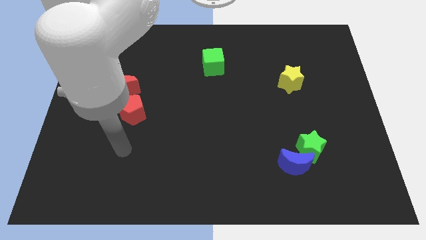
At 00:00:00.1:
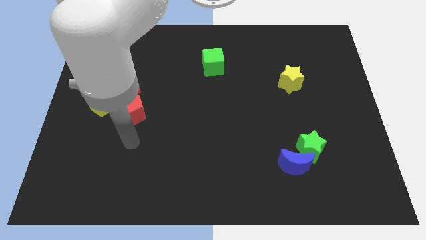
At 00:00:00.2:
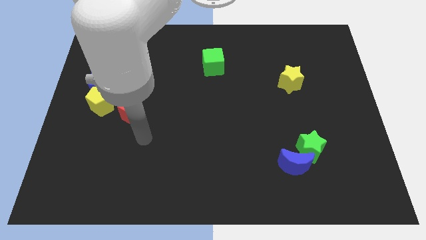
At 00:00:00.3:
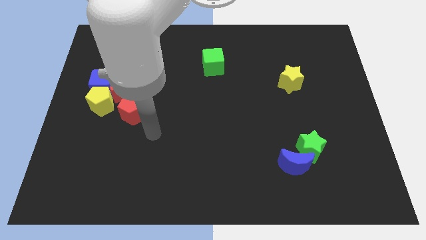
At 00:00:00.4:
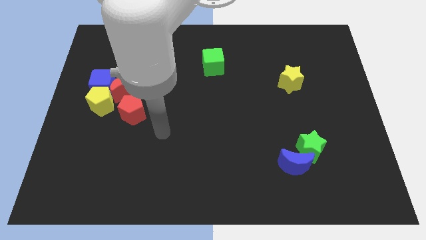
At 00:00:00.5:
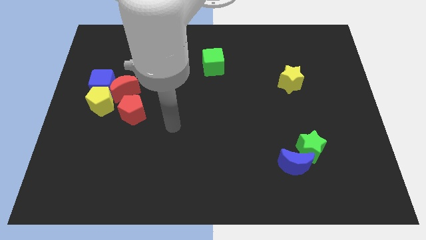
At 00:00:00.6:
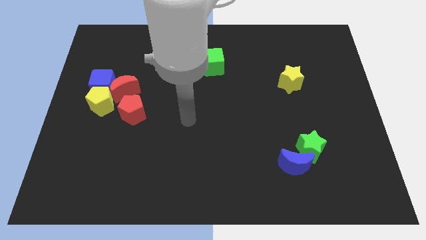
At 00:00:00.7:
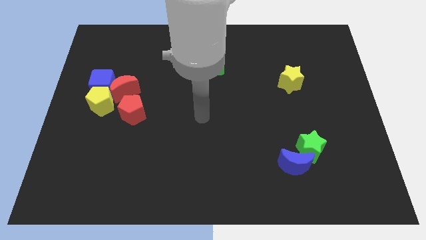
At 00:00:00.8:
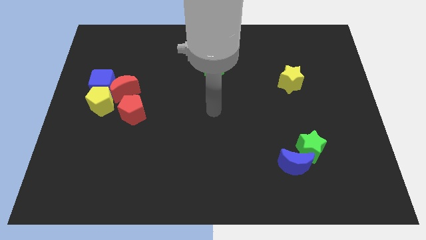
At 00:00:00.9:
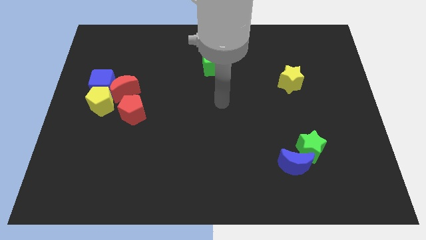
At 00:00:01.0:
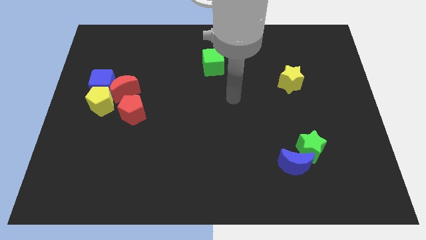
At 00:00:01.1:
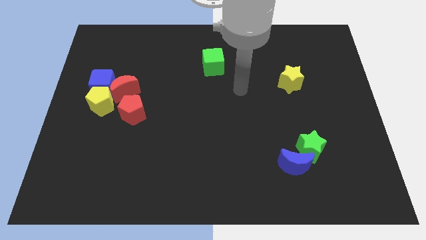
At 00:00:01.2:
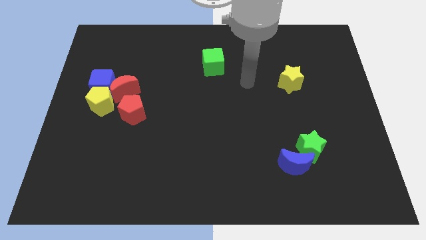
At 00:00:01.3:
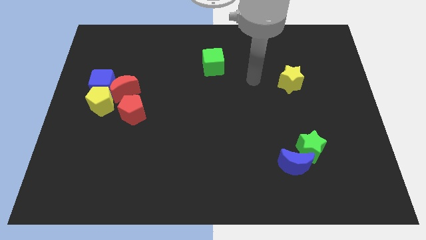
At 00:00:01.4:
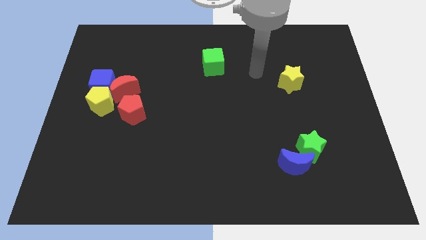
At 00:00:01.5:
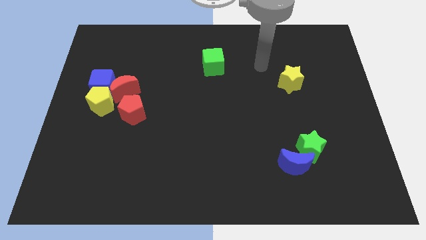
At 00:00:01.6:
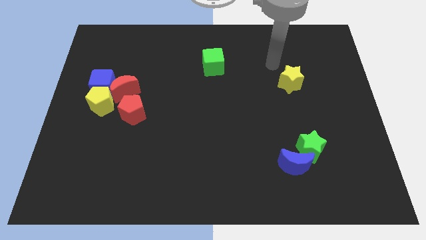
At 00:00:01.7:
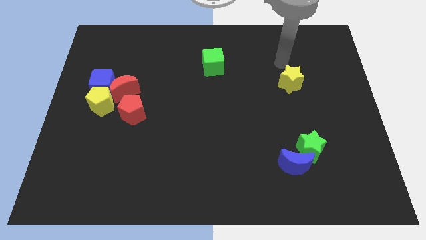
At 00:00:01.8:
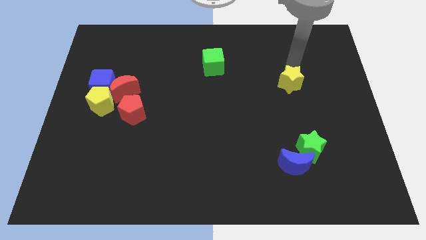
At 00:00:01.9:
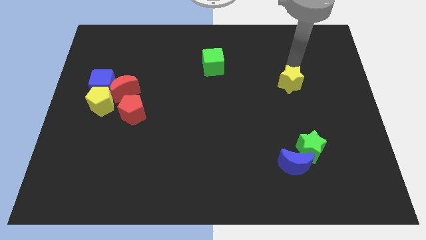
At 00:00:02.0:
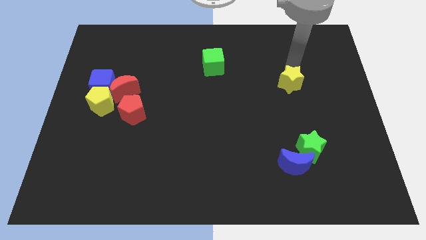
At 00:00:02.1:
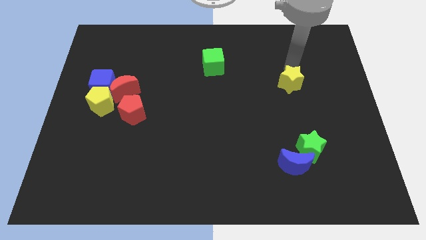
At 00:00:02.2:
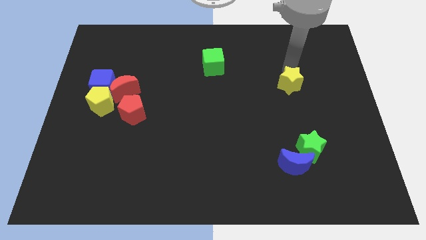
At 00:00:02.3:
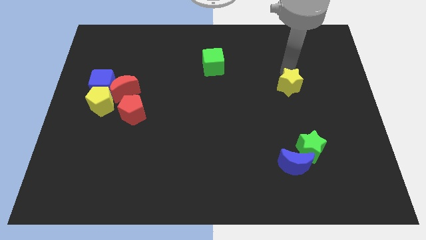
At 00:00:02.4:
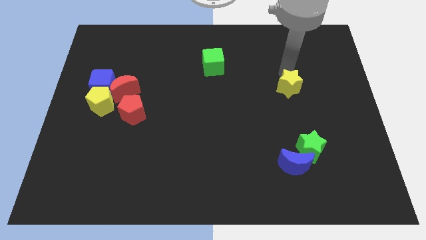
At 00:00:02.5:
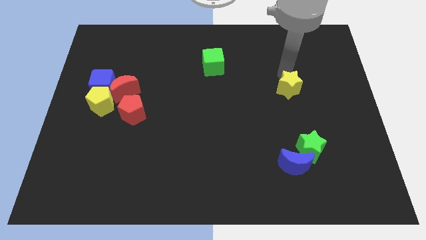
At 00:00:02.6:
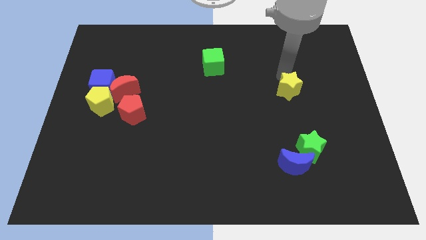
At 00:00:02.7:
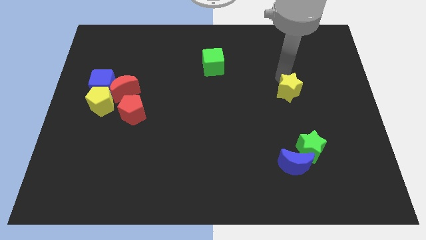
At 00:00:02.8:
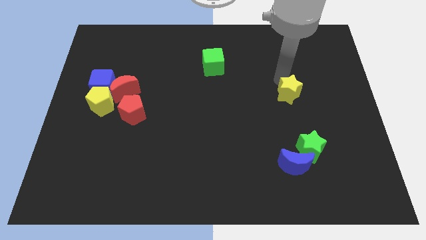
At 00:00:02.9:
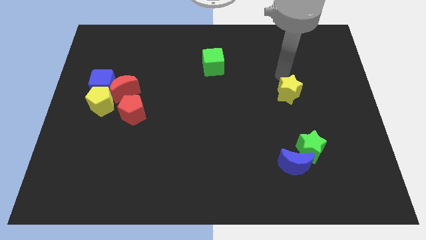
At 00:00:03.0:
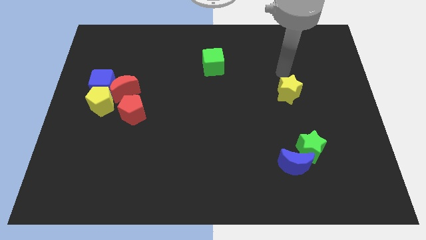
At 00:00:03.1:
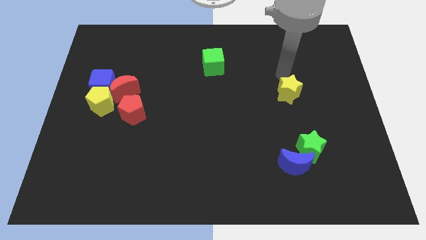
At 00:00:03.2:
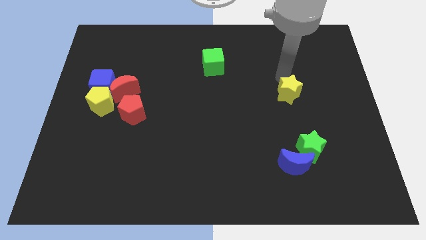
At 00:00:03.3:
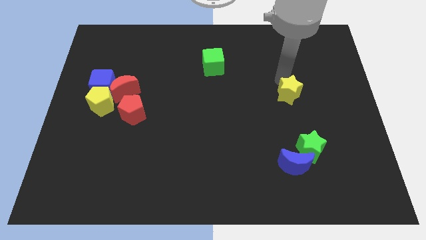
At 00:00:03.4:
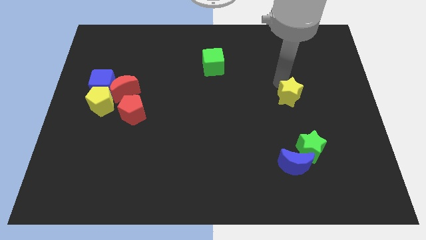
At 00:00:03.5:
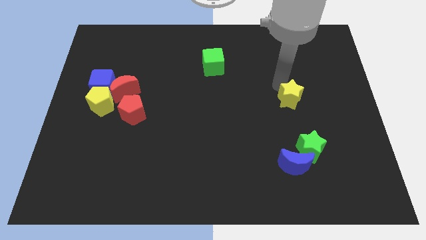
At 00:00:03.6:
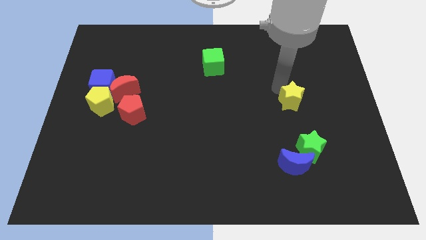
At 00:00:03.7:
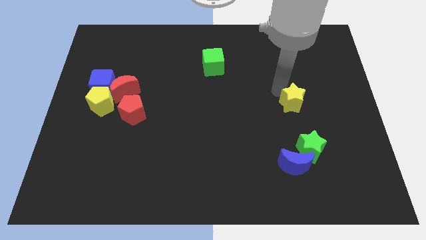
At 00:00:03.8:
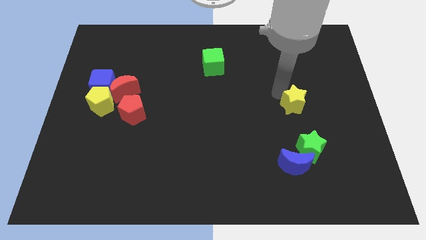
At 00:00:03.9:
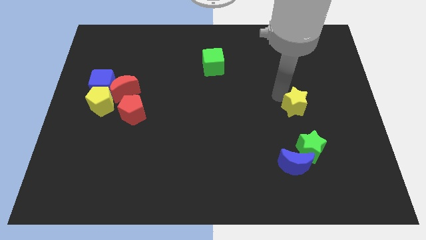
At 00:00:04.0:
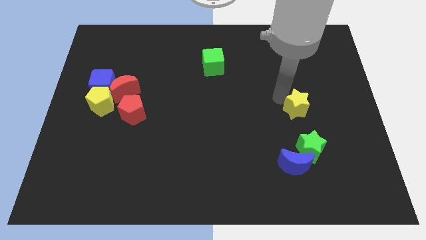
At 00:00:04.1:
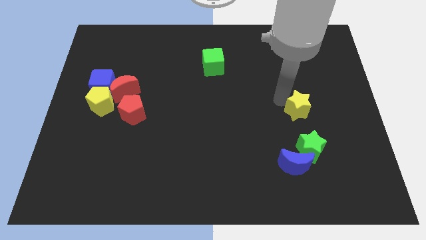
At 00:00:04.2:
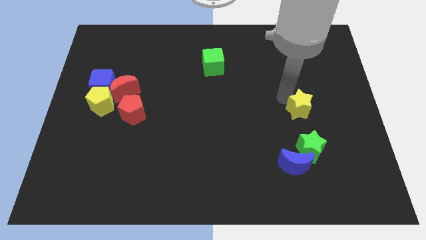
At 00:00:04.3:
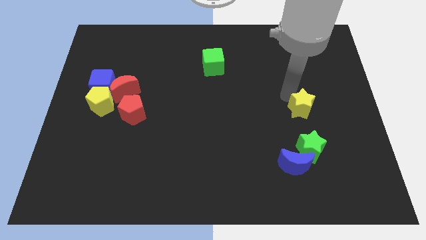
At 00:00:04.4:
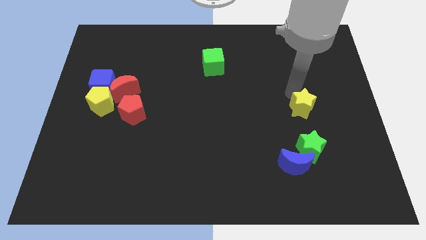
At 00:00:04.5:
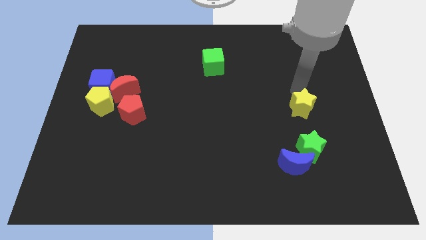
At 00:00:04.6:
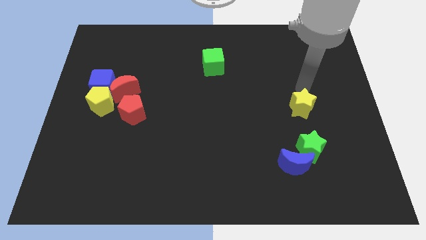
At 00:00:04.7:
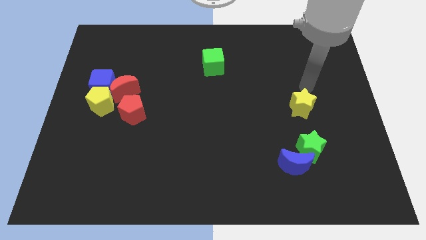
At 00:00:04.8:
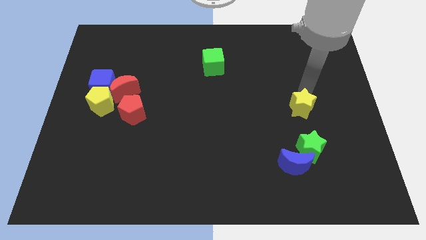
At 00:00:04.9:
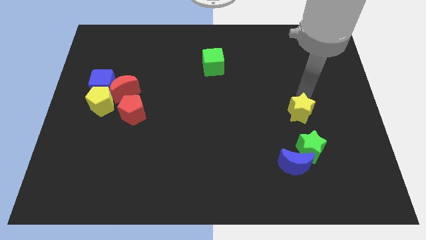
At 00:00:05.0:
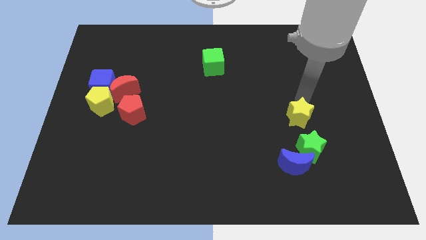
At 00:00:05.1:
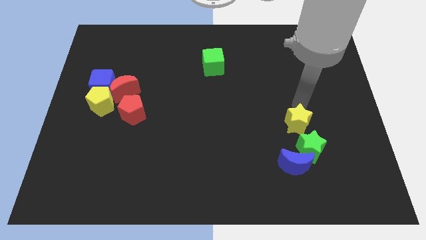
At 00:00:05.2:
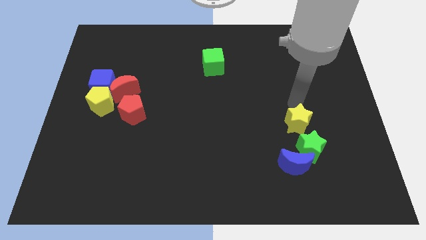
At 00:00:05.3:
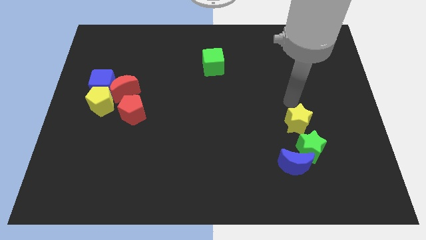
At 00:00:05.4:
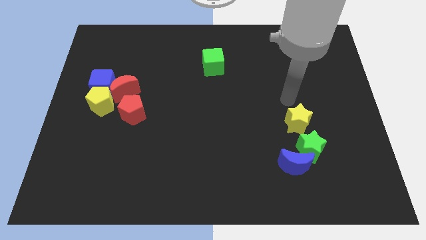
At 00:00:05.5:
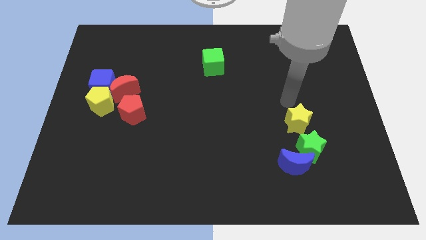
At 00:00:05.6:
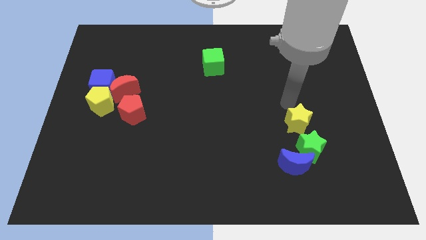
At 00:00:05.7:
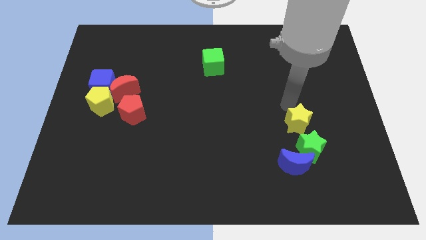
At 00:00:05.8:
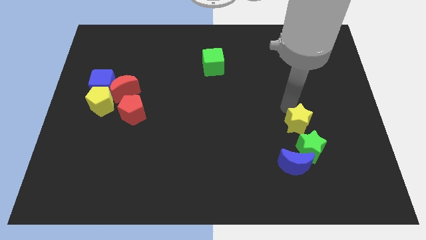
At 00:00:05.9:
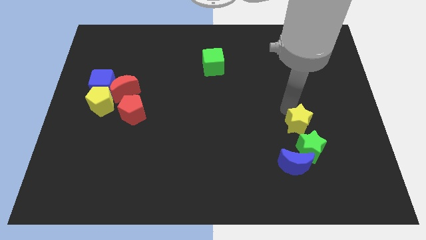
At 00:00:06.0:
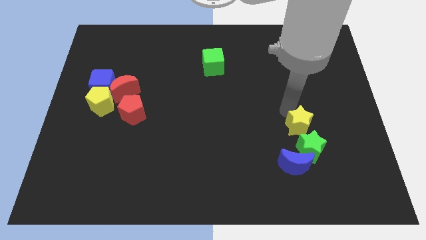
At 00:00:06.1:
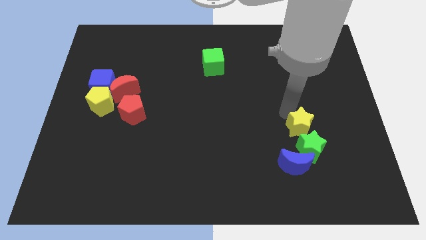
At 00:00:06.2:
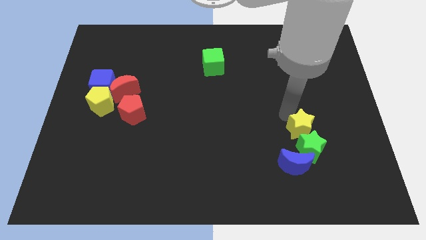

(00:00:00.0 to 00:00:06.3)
put the yellow star next to the green star

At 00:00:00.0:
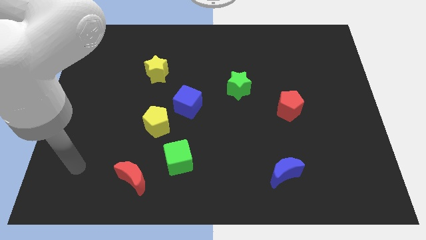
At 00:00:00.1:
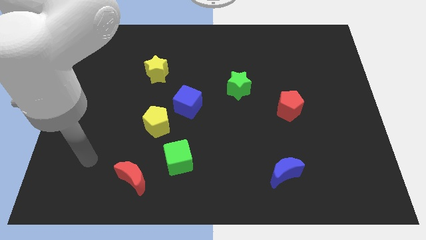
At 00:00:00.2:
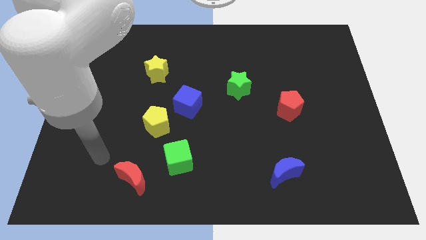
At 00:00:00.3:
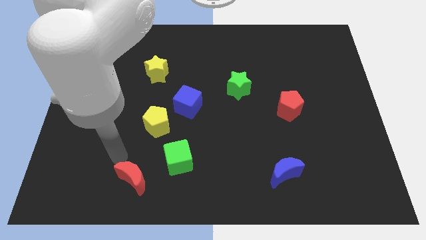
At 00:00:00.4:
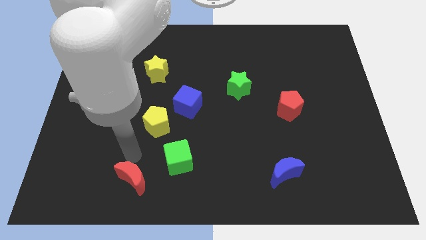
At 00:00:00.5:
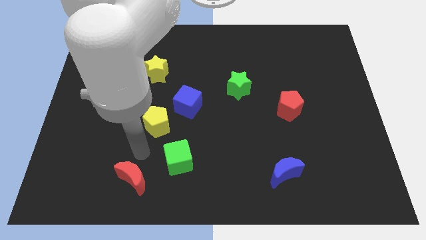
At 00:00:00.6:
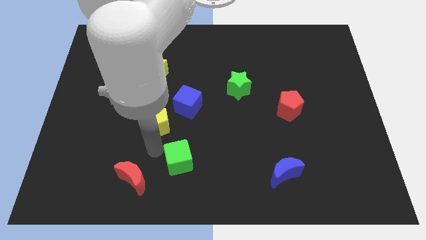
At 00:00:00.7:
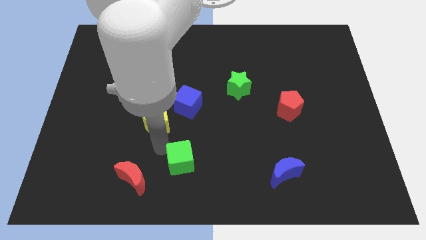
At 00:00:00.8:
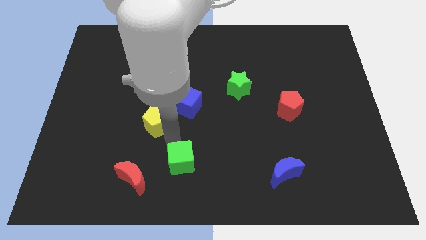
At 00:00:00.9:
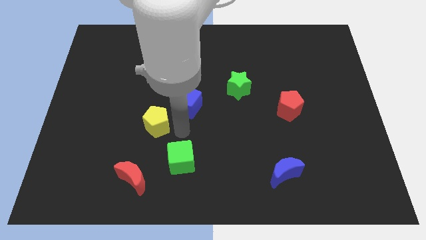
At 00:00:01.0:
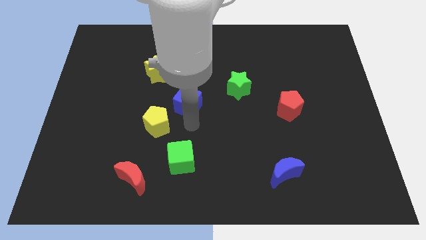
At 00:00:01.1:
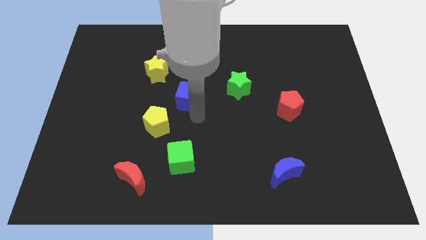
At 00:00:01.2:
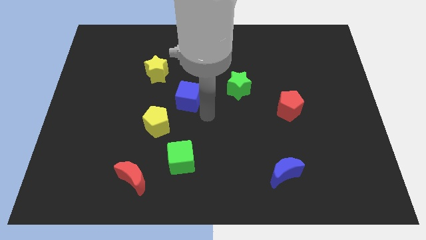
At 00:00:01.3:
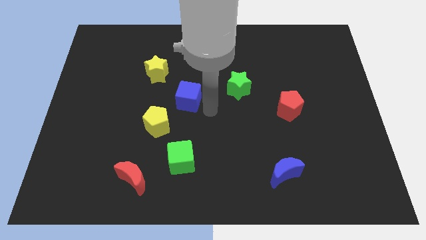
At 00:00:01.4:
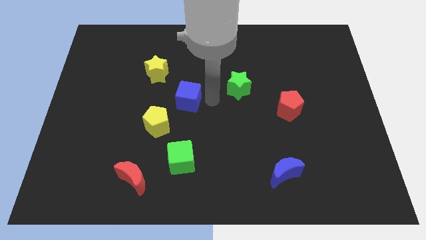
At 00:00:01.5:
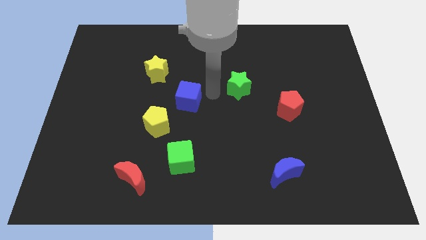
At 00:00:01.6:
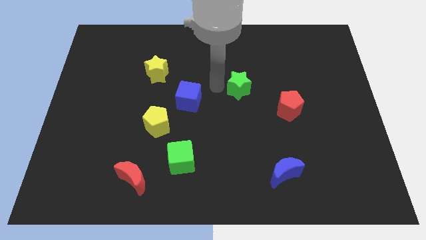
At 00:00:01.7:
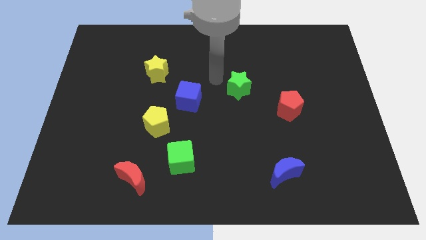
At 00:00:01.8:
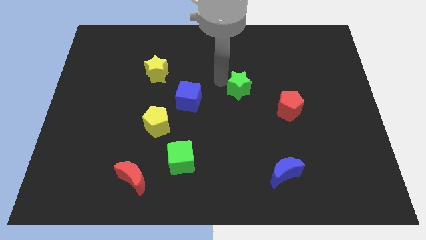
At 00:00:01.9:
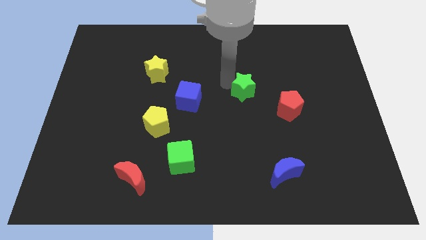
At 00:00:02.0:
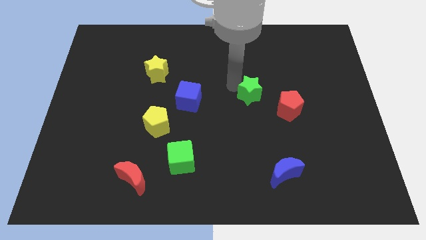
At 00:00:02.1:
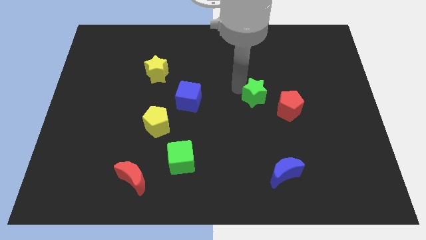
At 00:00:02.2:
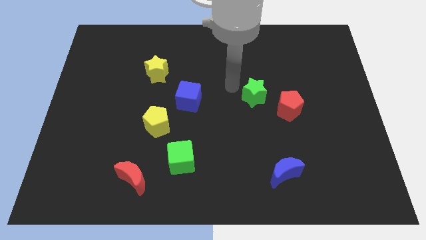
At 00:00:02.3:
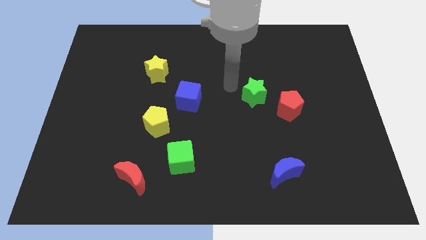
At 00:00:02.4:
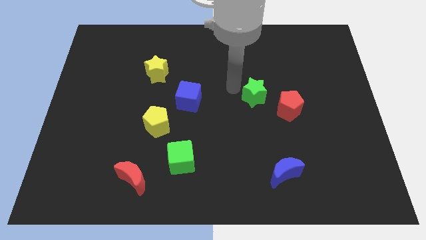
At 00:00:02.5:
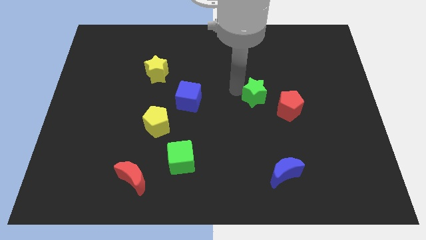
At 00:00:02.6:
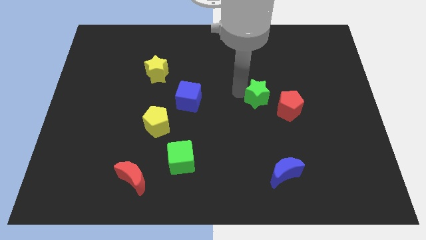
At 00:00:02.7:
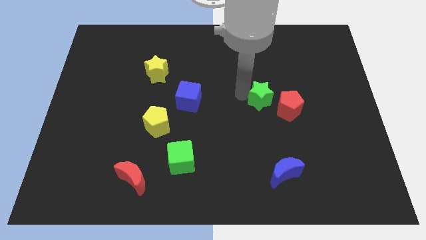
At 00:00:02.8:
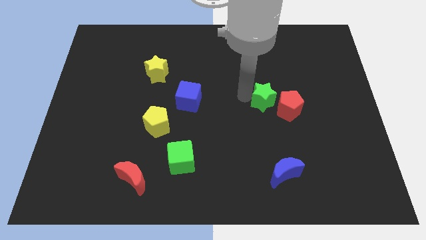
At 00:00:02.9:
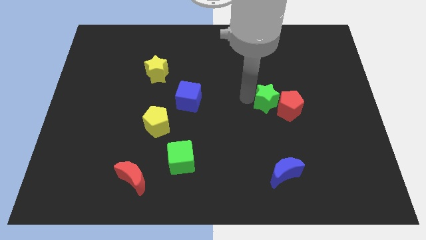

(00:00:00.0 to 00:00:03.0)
push the green star to the red pentagon
